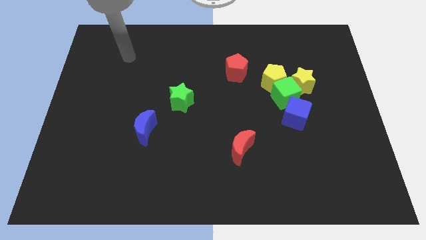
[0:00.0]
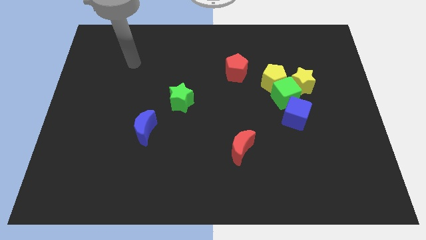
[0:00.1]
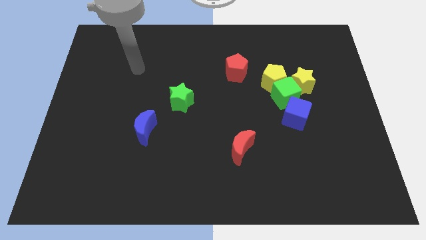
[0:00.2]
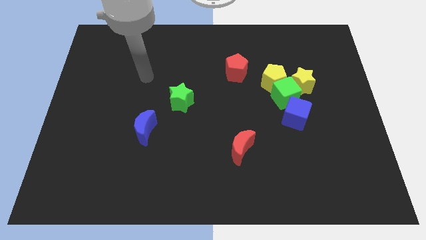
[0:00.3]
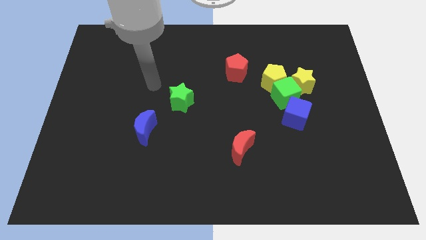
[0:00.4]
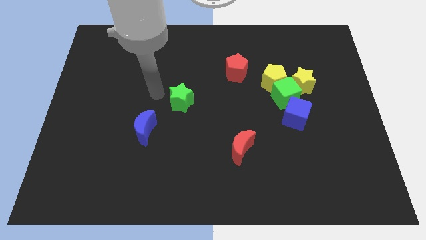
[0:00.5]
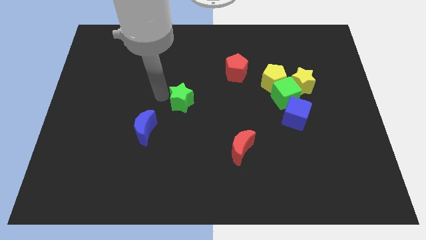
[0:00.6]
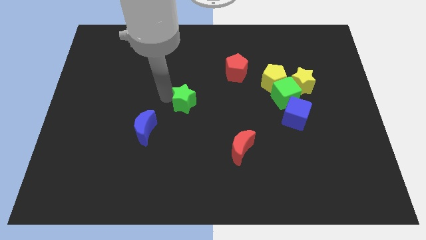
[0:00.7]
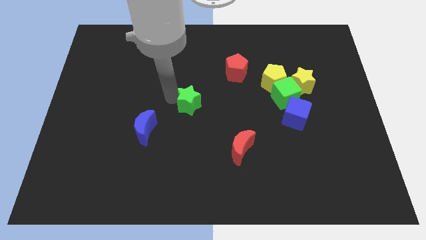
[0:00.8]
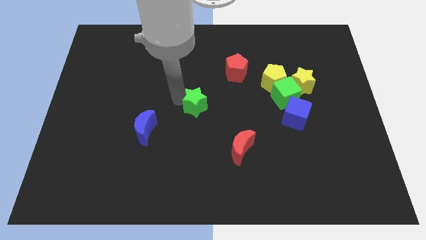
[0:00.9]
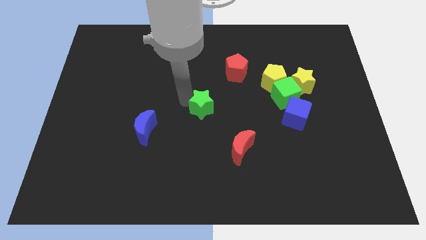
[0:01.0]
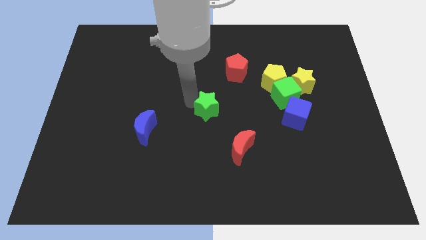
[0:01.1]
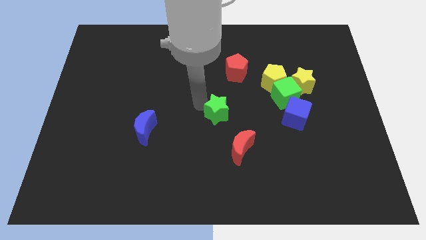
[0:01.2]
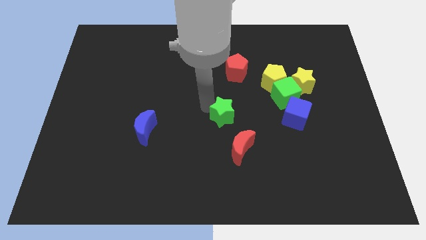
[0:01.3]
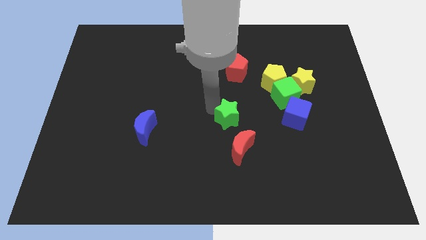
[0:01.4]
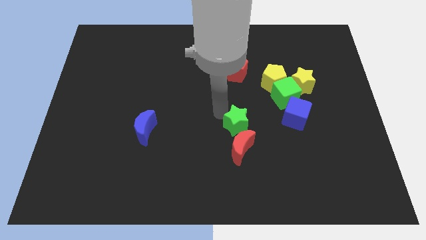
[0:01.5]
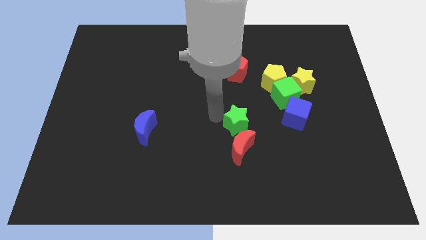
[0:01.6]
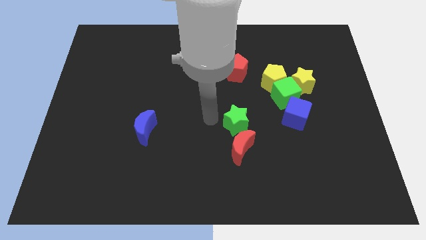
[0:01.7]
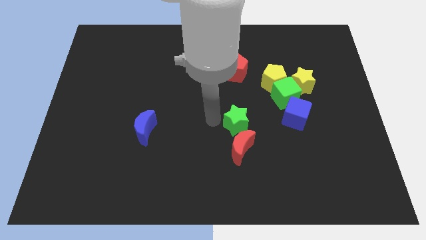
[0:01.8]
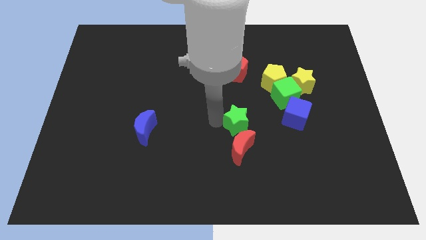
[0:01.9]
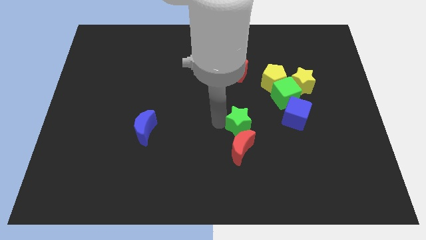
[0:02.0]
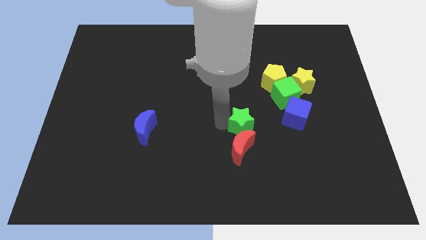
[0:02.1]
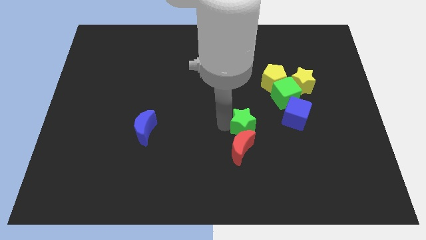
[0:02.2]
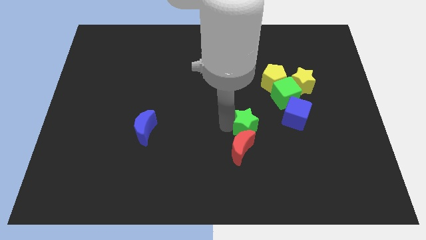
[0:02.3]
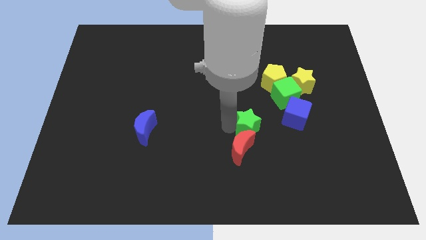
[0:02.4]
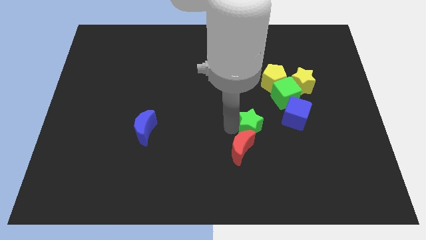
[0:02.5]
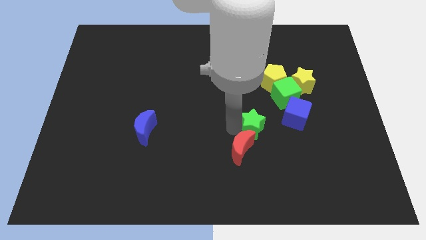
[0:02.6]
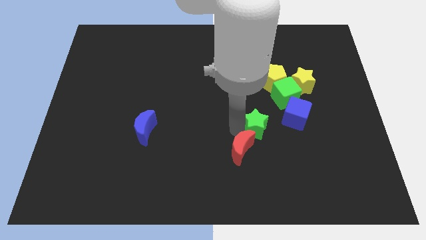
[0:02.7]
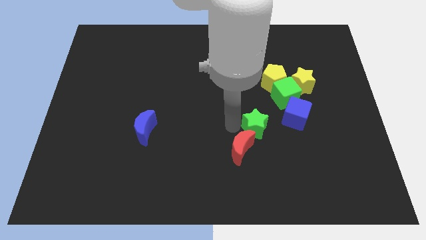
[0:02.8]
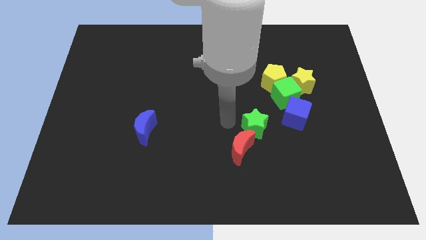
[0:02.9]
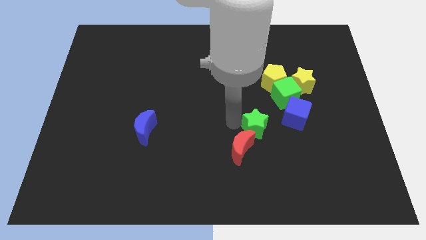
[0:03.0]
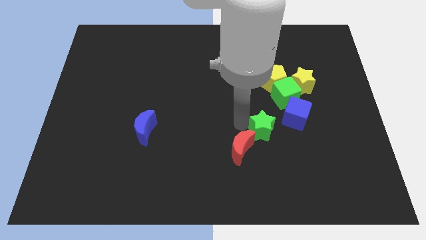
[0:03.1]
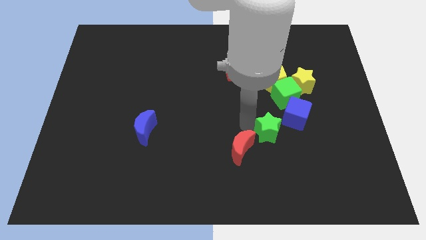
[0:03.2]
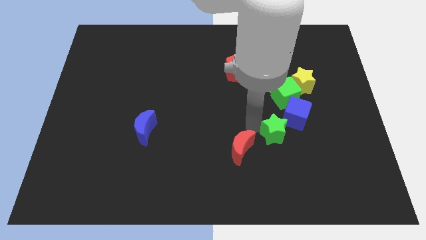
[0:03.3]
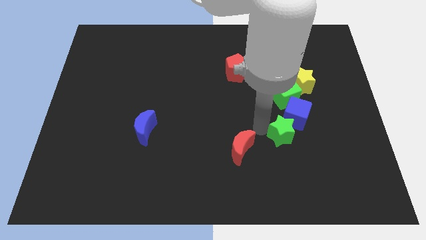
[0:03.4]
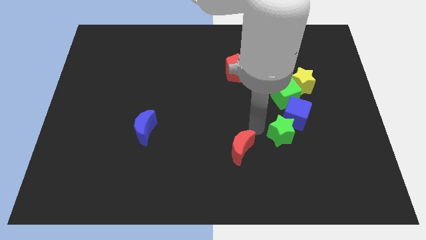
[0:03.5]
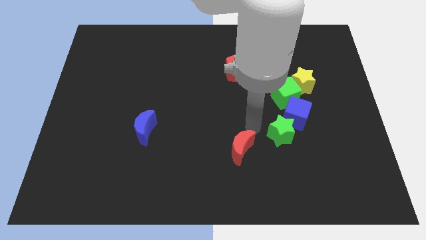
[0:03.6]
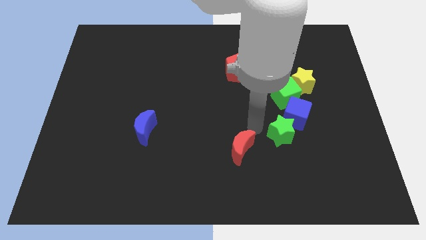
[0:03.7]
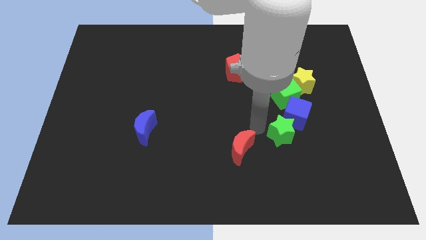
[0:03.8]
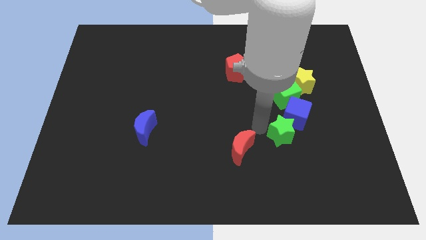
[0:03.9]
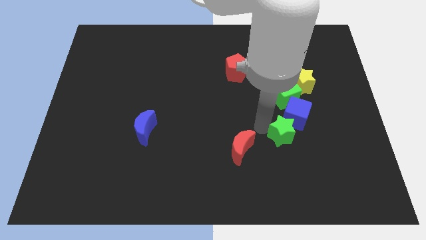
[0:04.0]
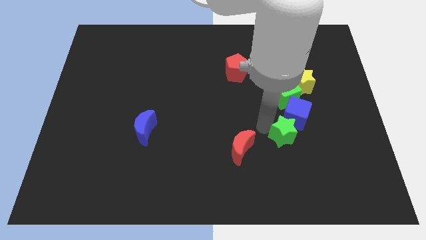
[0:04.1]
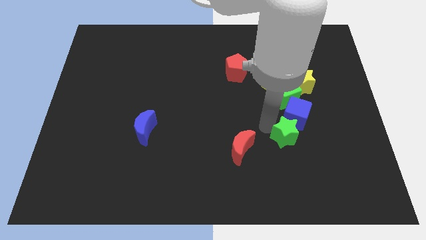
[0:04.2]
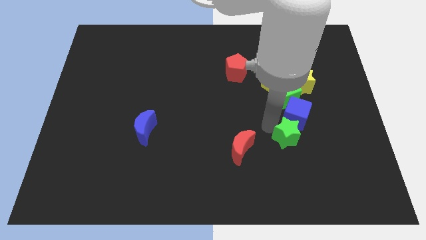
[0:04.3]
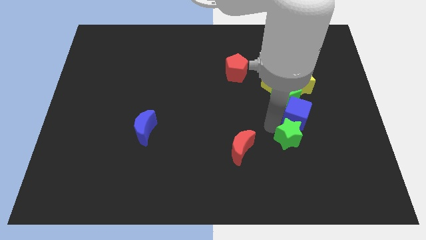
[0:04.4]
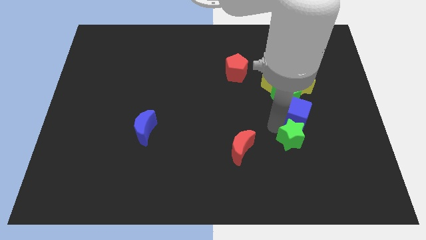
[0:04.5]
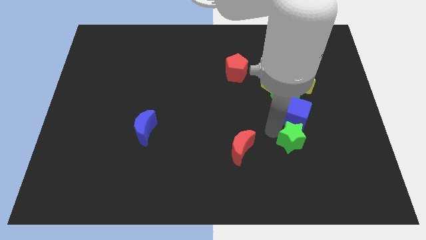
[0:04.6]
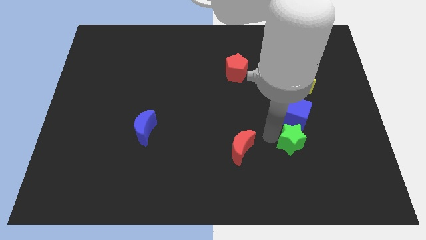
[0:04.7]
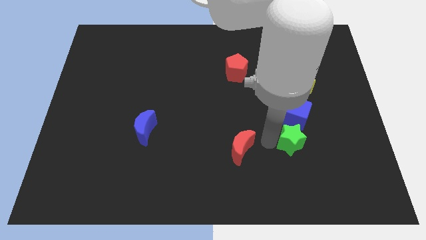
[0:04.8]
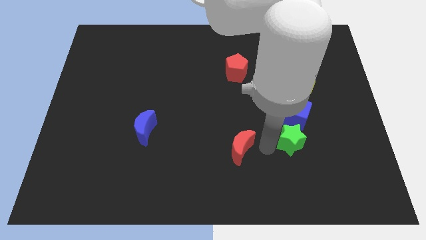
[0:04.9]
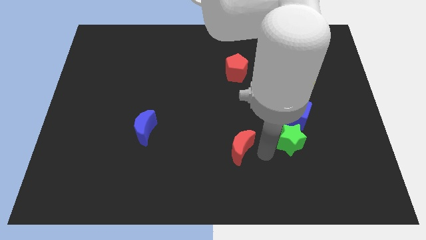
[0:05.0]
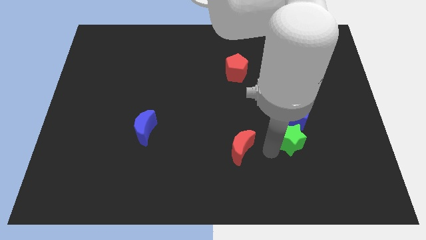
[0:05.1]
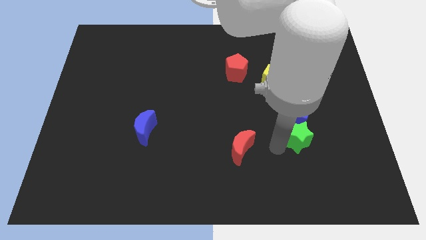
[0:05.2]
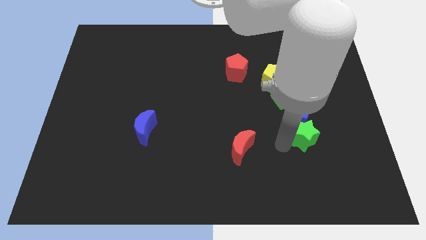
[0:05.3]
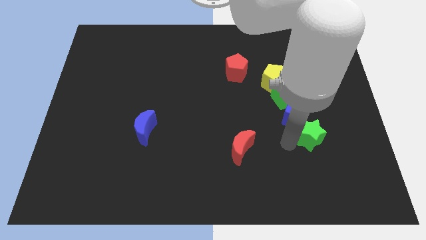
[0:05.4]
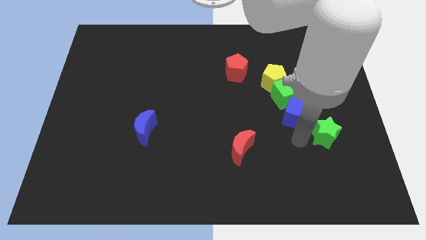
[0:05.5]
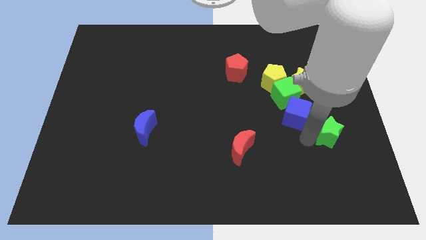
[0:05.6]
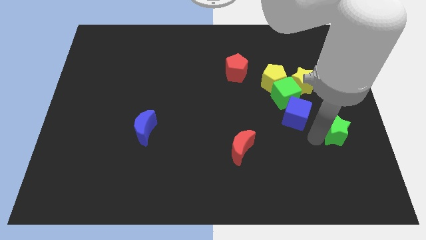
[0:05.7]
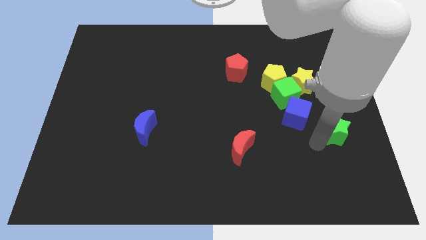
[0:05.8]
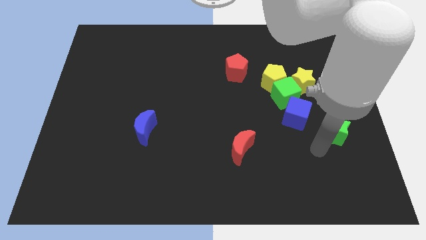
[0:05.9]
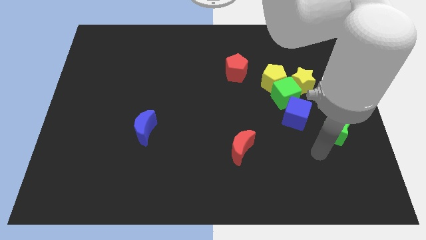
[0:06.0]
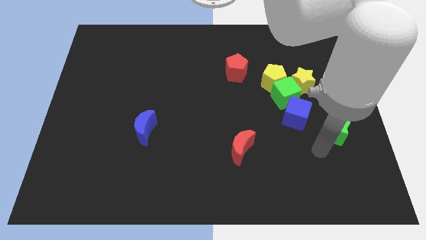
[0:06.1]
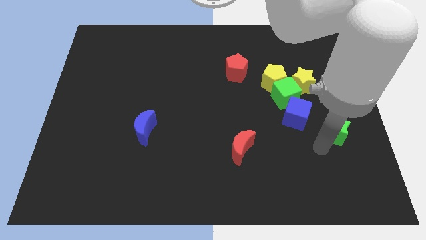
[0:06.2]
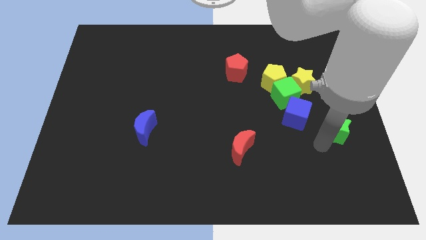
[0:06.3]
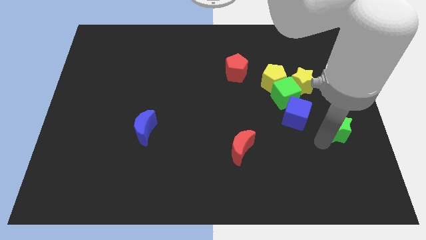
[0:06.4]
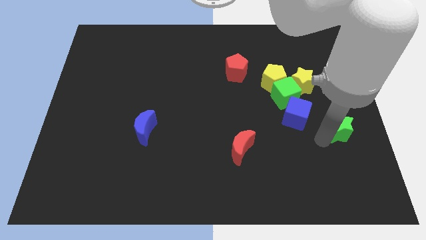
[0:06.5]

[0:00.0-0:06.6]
push the green star to the right side of the board
